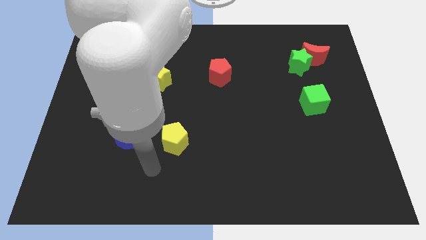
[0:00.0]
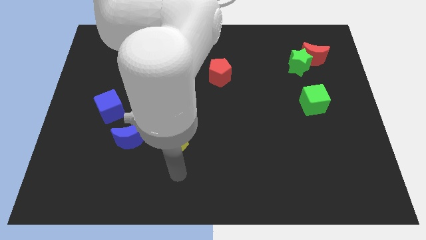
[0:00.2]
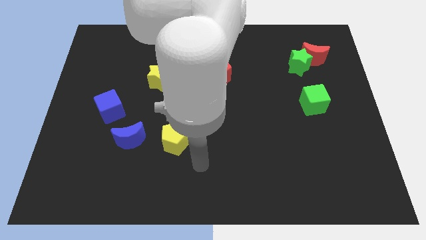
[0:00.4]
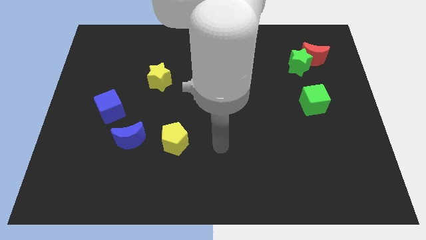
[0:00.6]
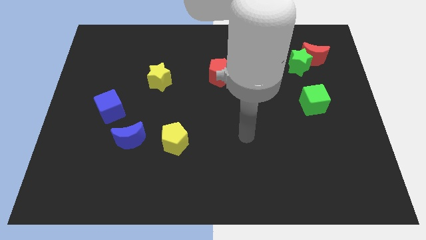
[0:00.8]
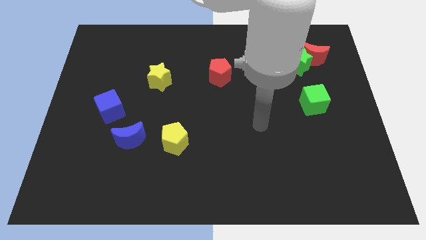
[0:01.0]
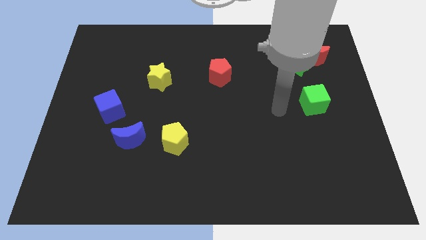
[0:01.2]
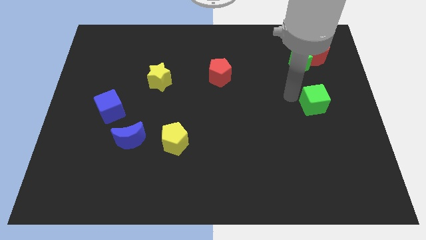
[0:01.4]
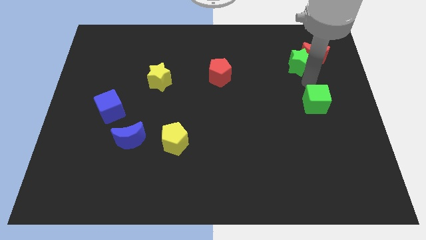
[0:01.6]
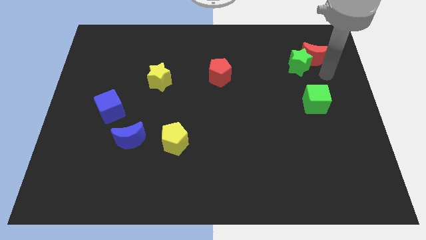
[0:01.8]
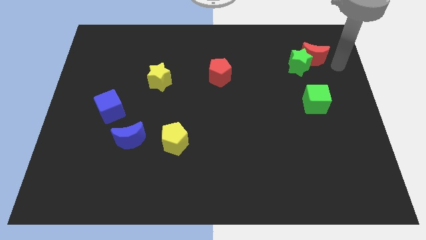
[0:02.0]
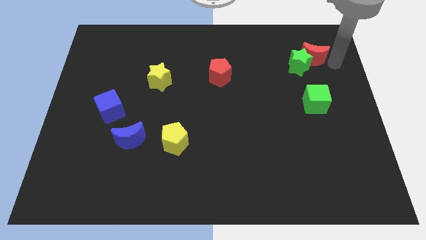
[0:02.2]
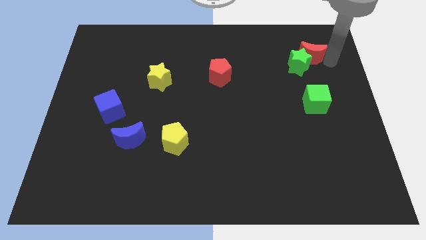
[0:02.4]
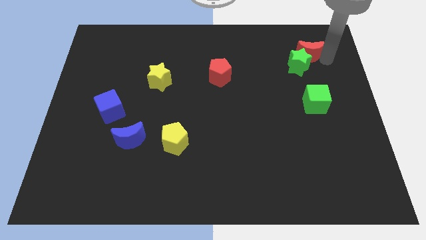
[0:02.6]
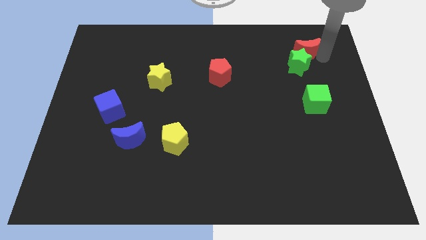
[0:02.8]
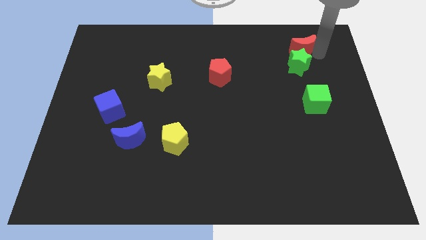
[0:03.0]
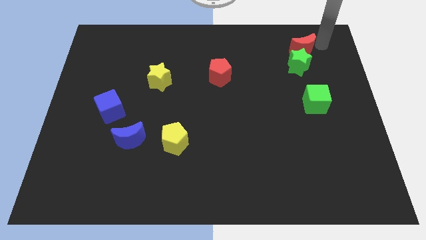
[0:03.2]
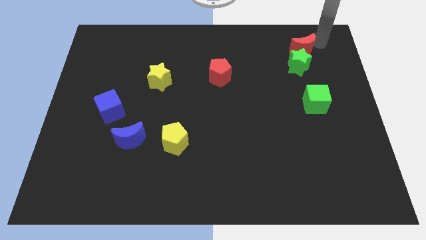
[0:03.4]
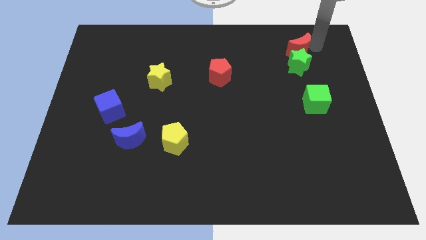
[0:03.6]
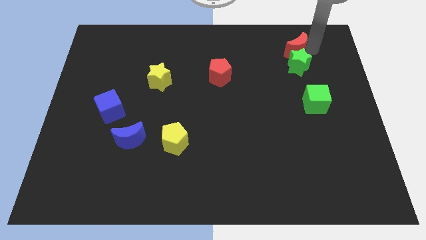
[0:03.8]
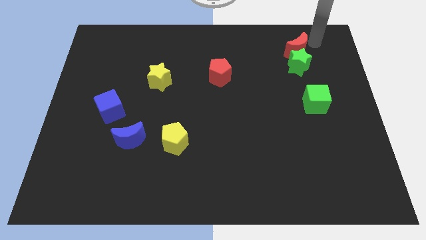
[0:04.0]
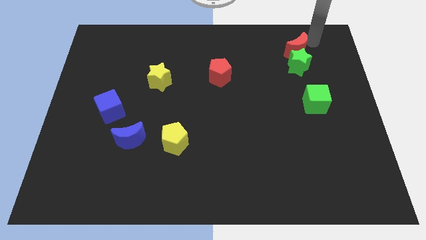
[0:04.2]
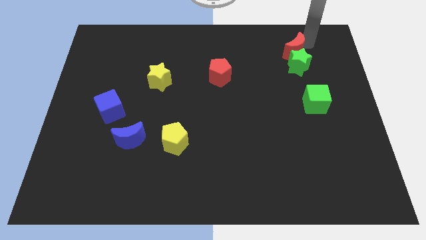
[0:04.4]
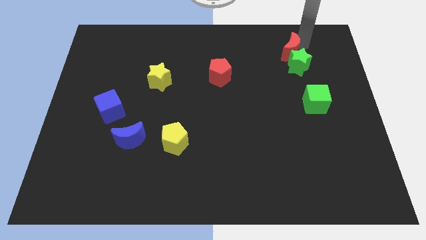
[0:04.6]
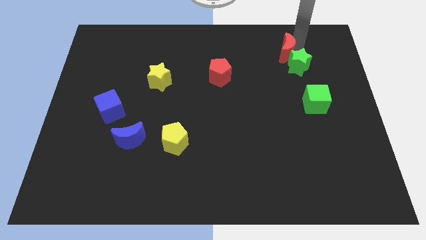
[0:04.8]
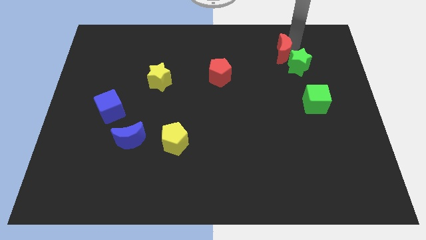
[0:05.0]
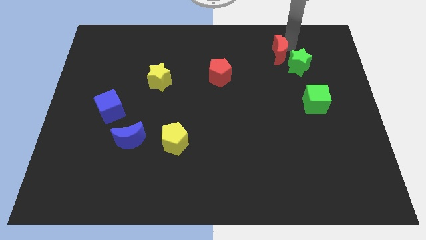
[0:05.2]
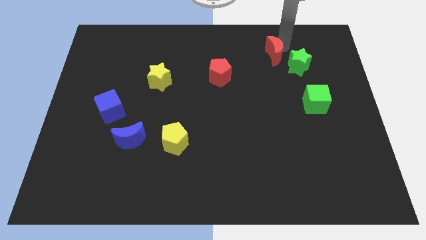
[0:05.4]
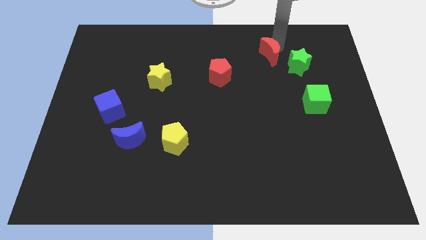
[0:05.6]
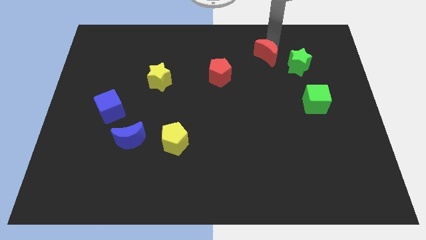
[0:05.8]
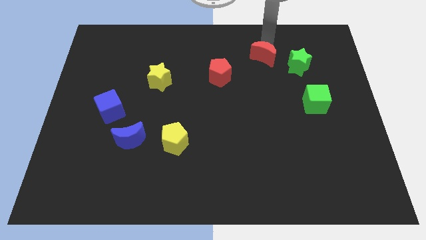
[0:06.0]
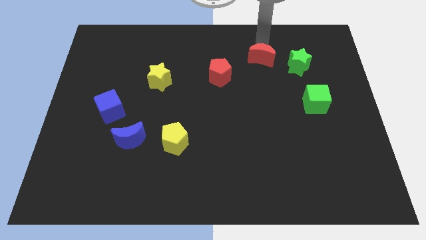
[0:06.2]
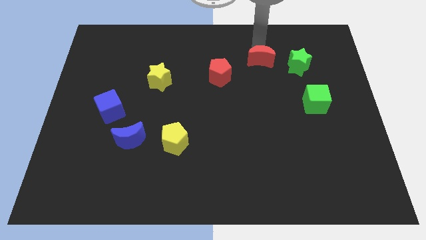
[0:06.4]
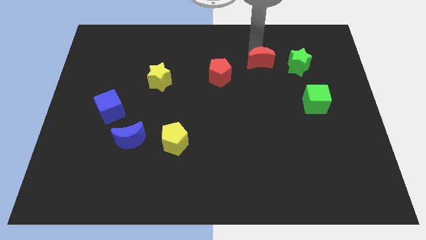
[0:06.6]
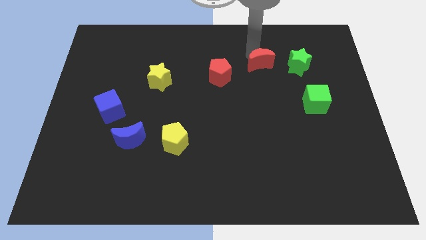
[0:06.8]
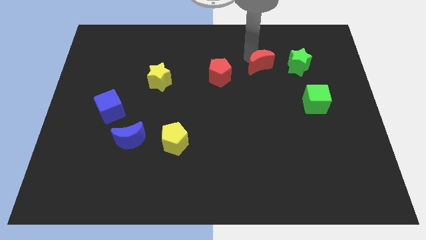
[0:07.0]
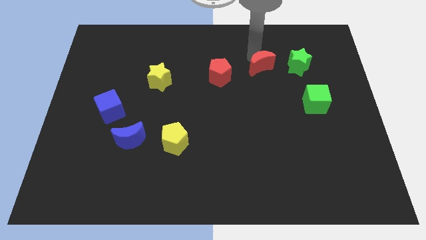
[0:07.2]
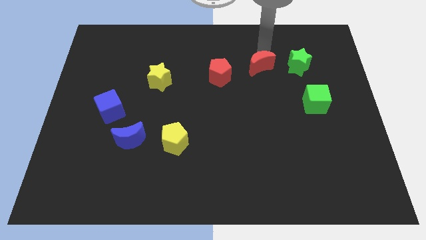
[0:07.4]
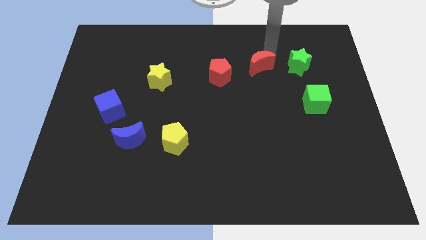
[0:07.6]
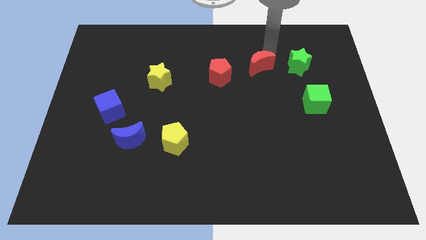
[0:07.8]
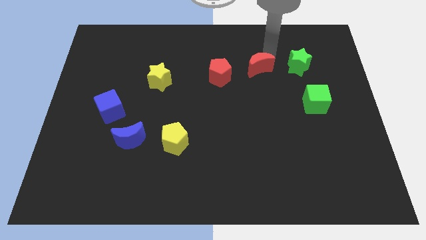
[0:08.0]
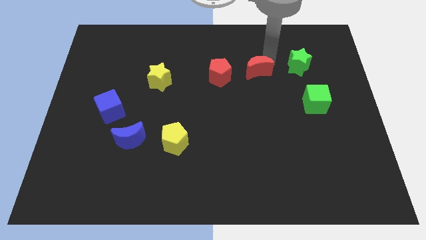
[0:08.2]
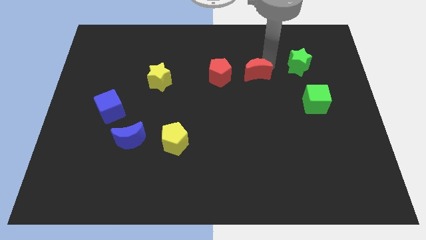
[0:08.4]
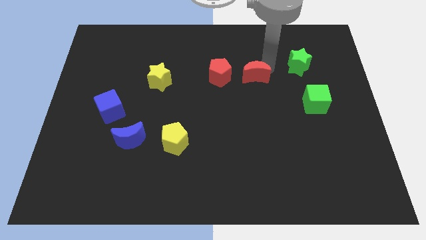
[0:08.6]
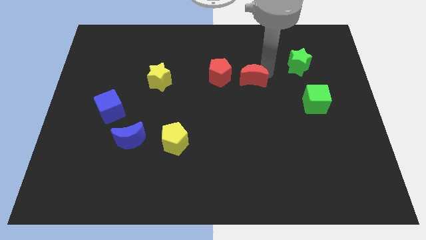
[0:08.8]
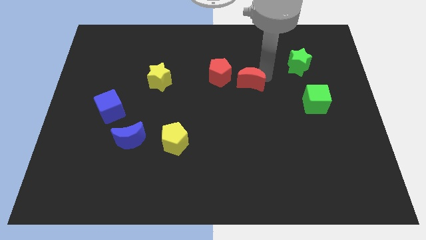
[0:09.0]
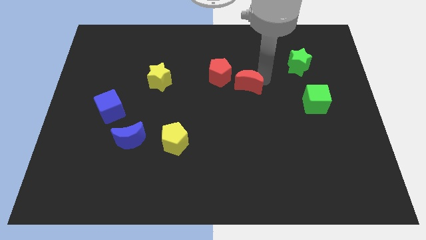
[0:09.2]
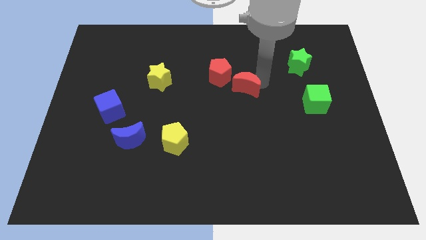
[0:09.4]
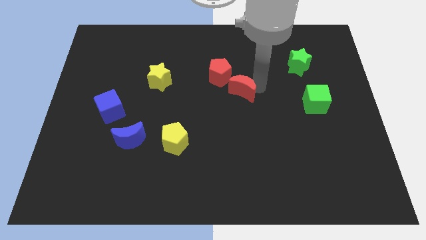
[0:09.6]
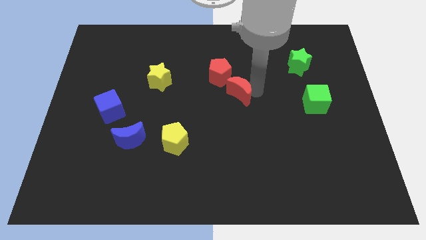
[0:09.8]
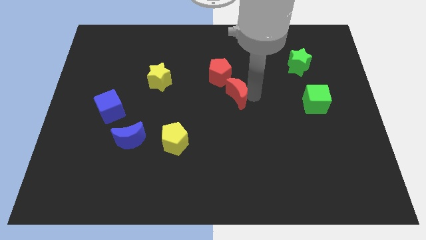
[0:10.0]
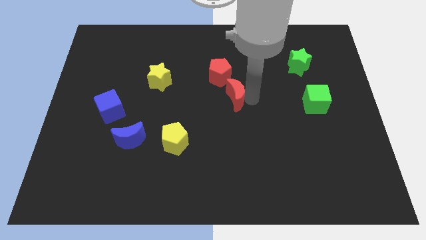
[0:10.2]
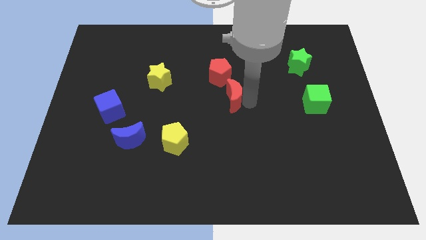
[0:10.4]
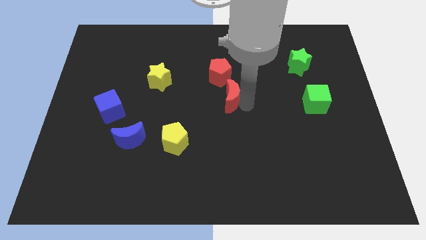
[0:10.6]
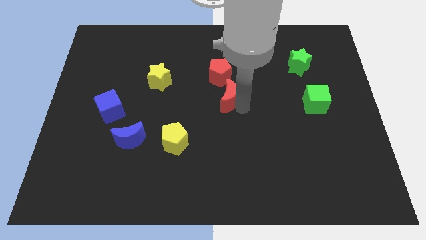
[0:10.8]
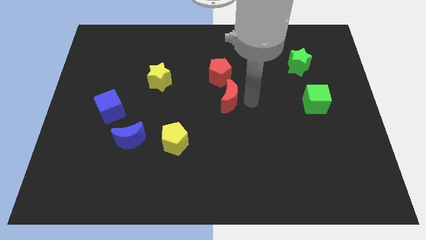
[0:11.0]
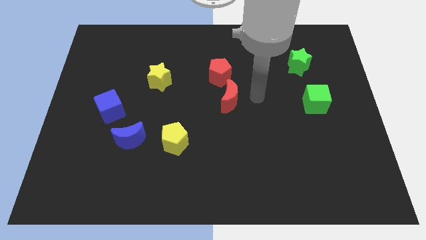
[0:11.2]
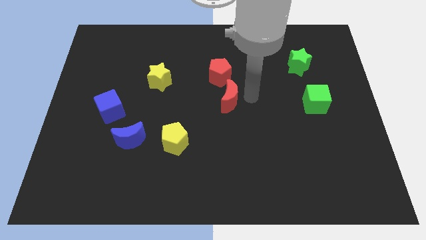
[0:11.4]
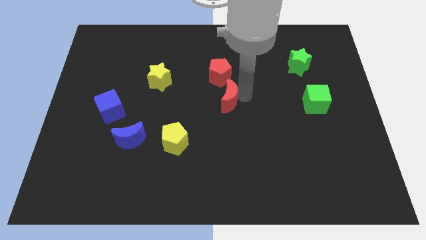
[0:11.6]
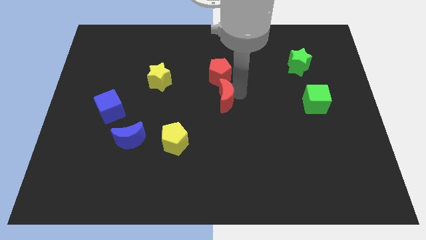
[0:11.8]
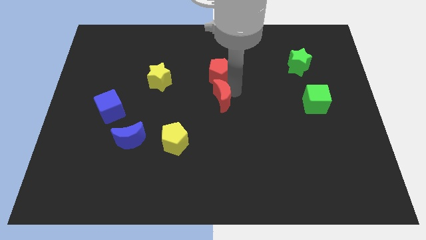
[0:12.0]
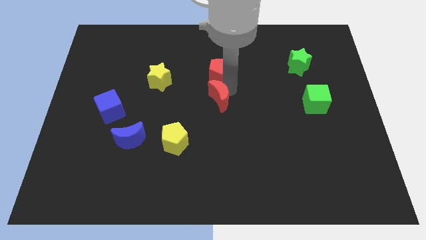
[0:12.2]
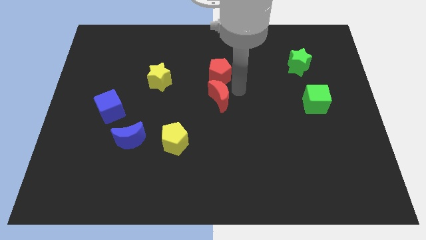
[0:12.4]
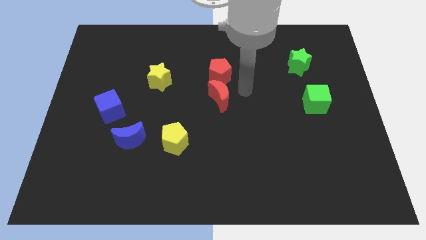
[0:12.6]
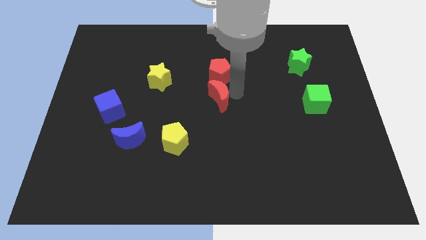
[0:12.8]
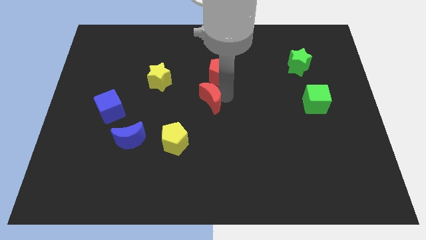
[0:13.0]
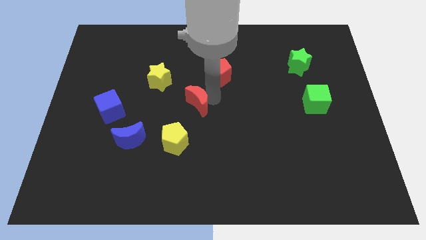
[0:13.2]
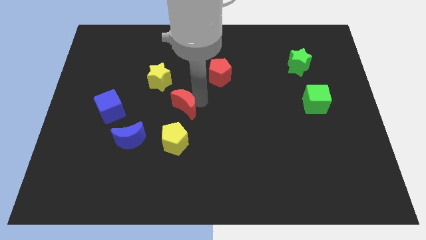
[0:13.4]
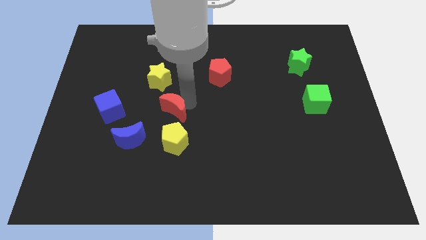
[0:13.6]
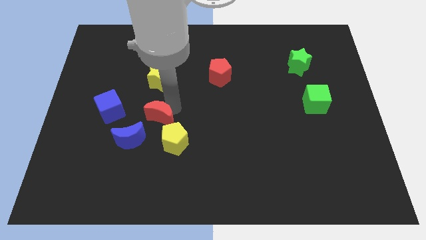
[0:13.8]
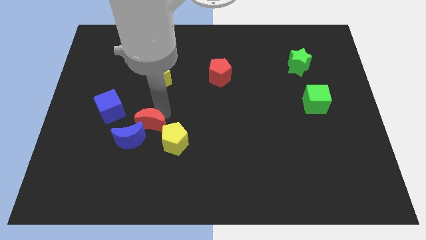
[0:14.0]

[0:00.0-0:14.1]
put the red moon close to the blue moon
